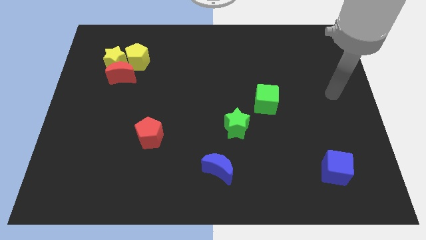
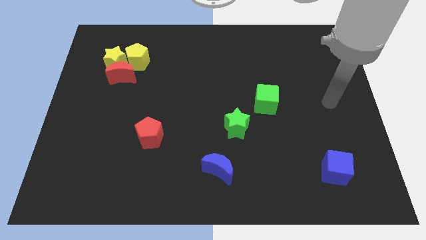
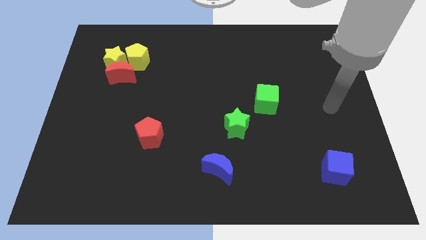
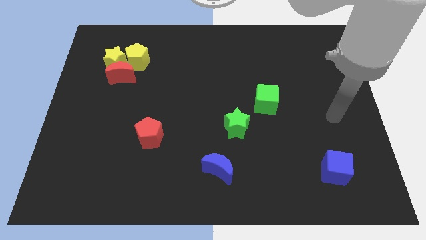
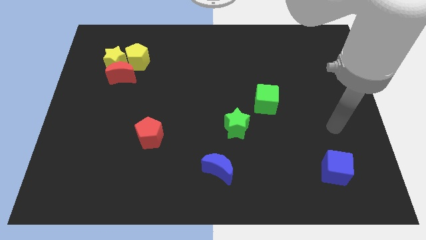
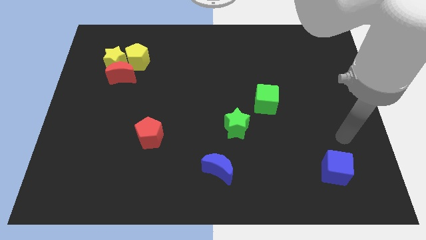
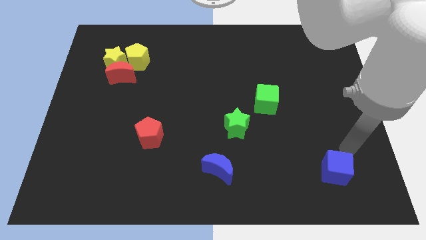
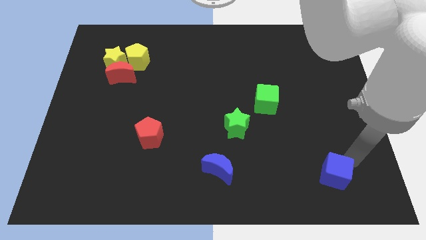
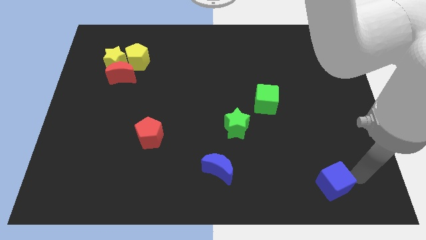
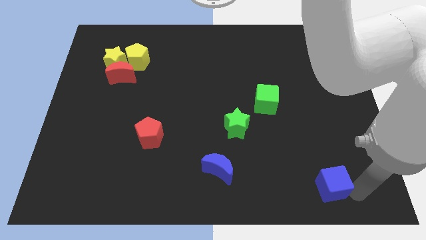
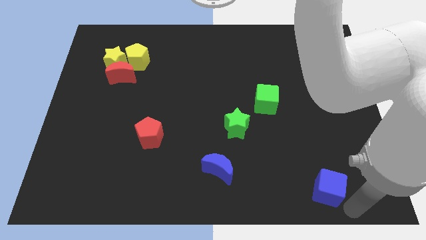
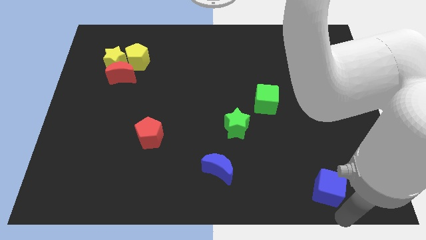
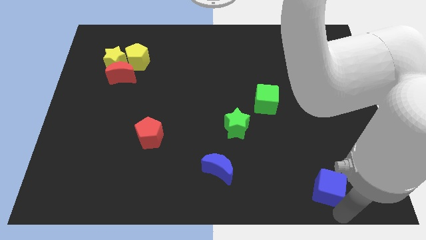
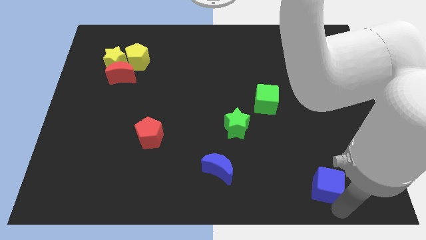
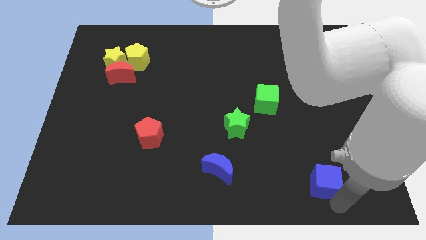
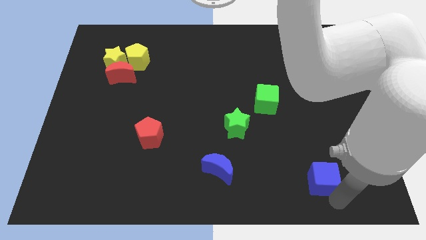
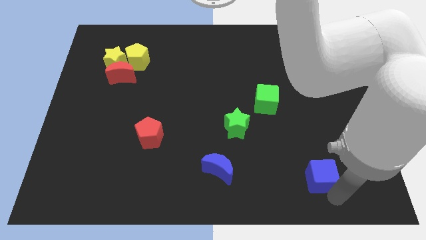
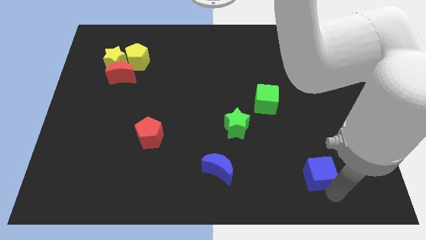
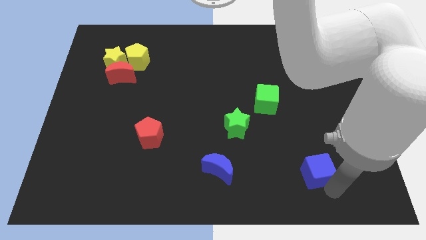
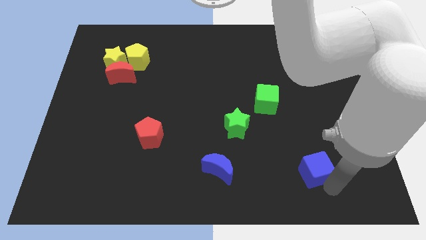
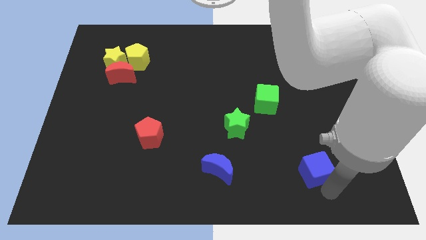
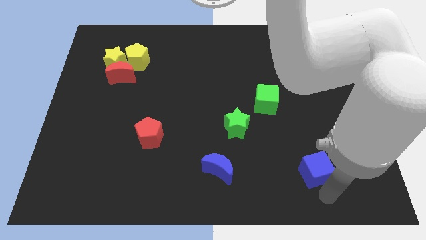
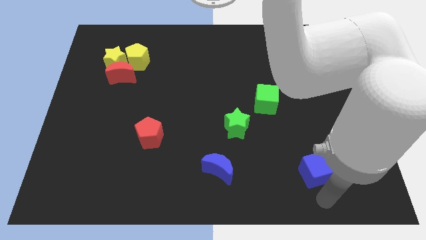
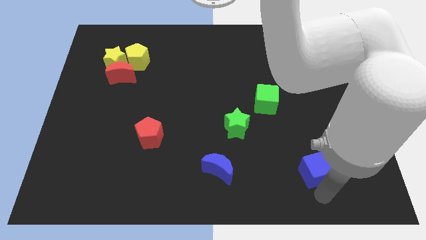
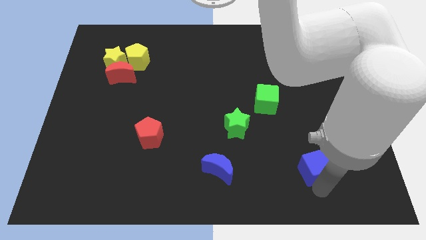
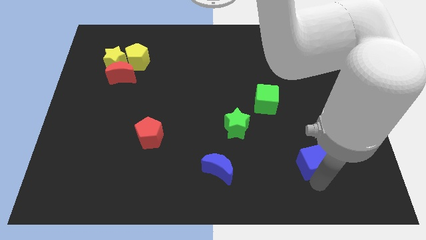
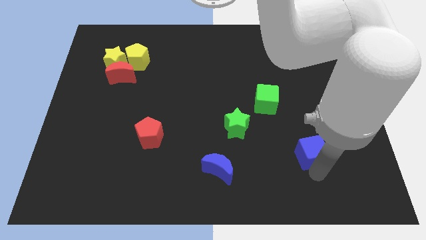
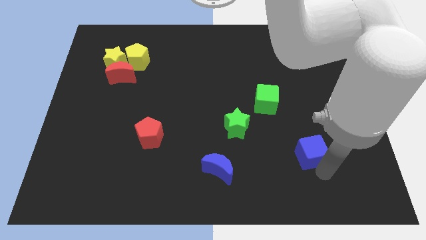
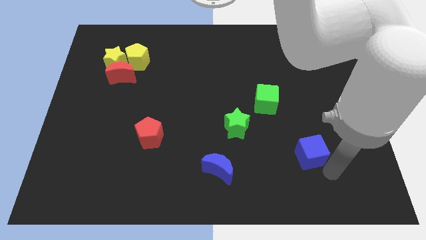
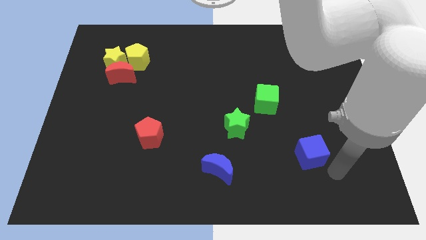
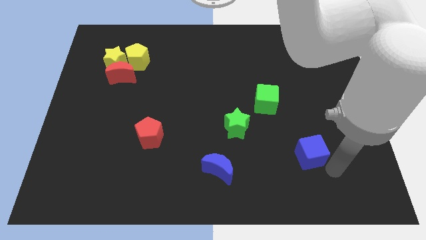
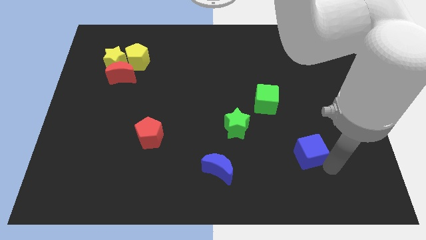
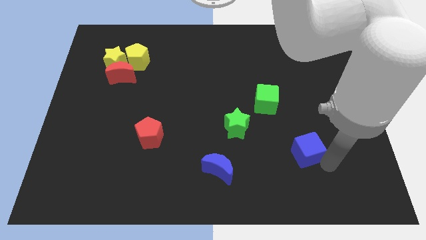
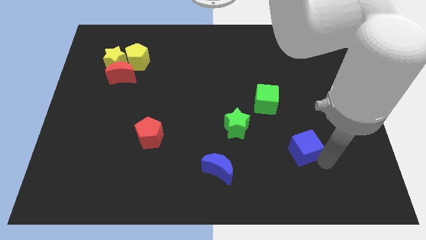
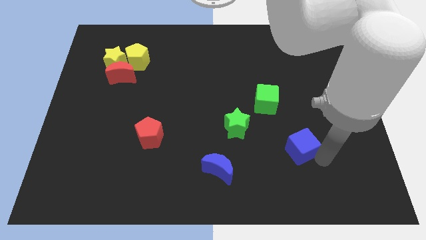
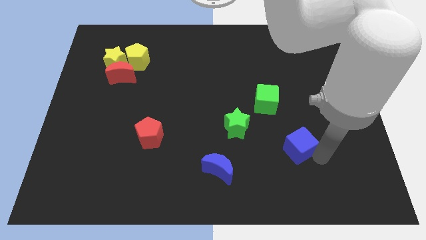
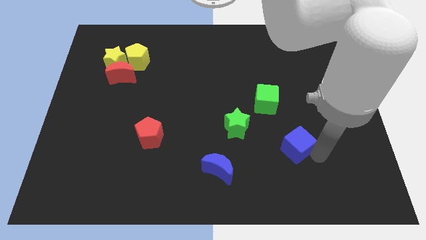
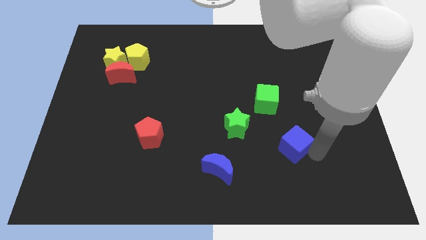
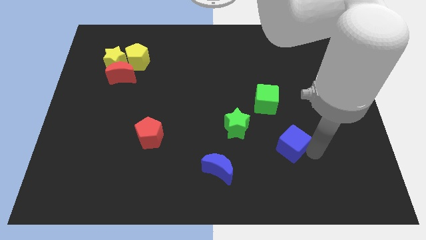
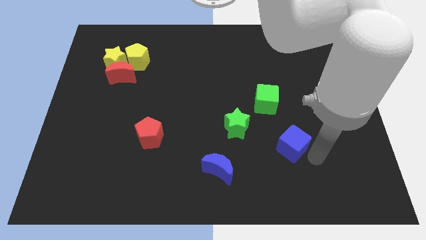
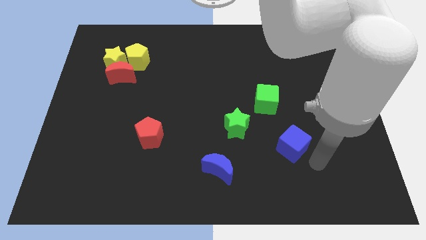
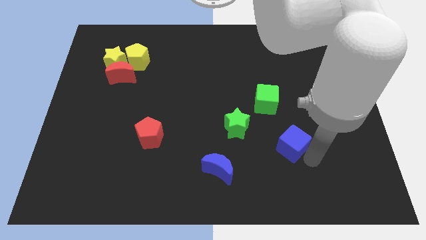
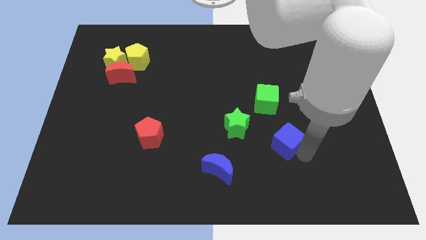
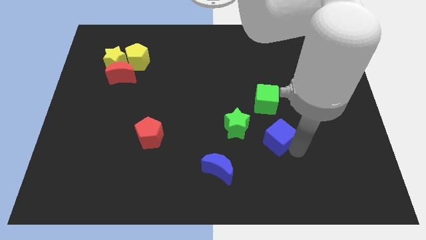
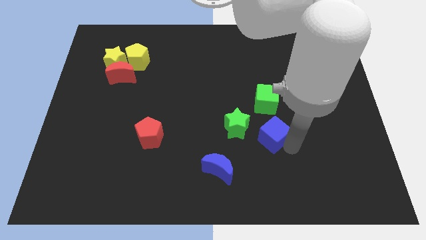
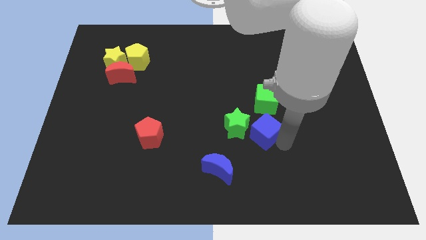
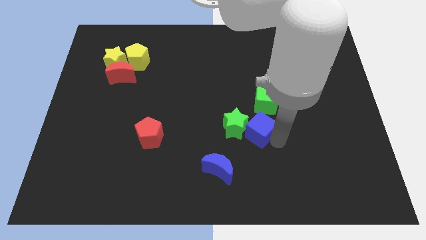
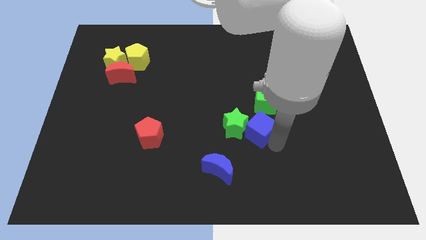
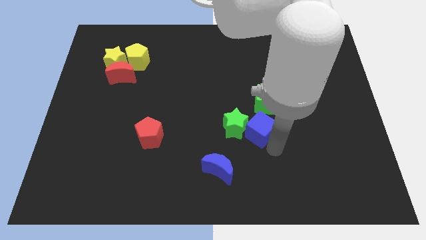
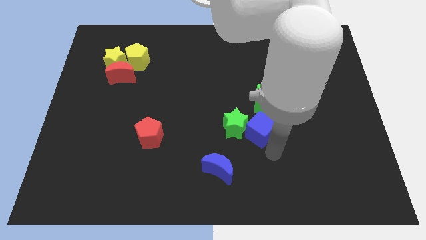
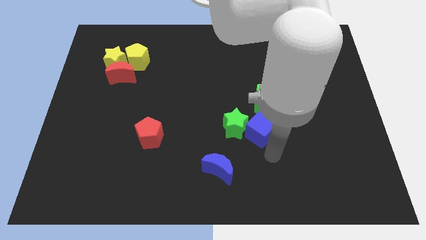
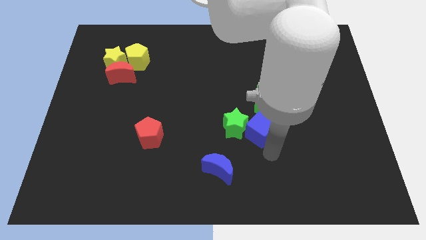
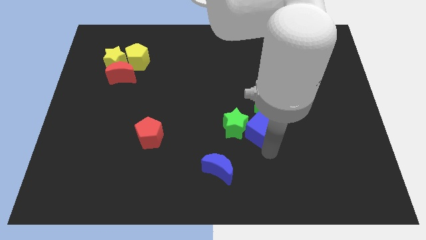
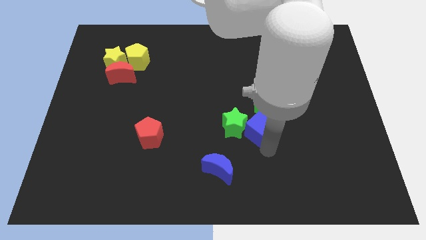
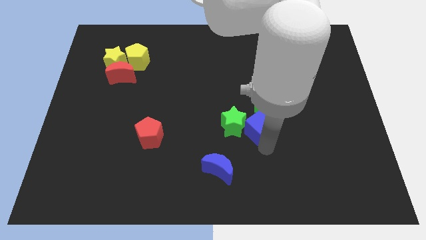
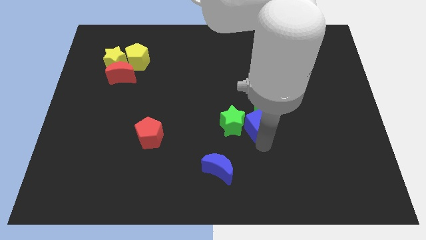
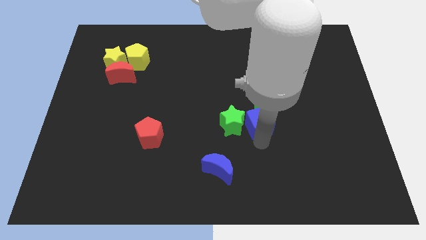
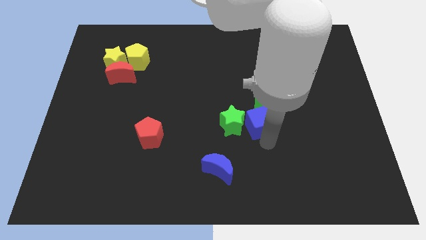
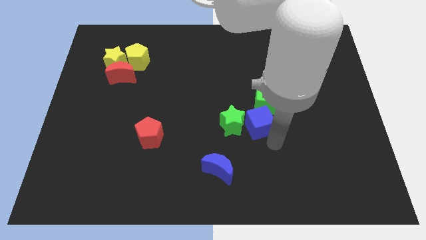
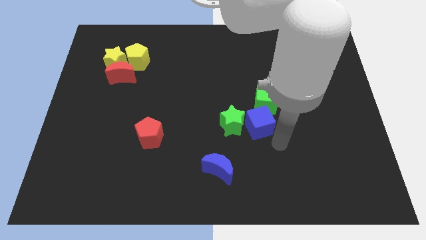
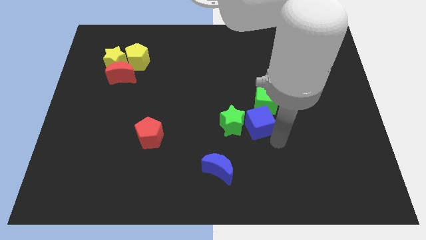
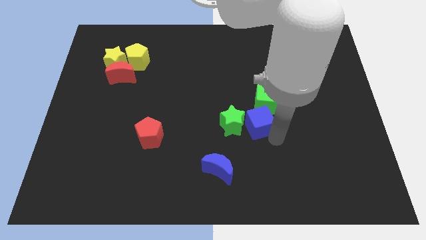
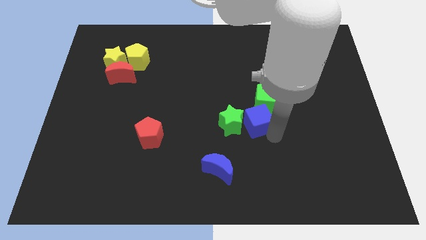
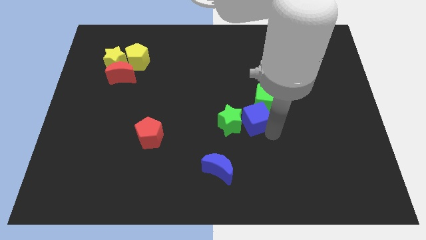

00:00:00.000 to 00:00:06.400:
move the blue cube up and left diagonally

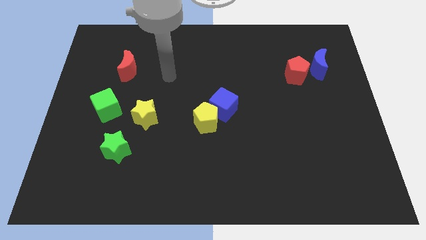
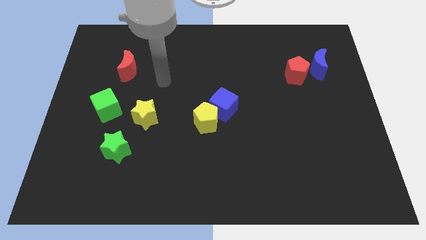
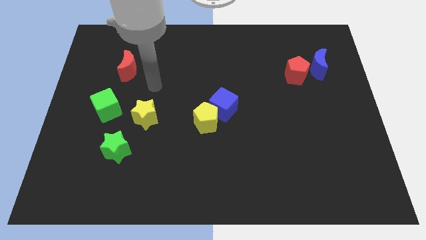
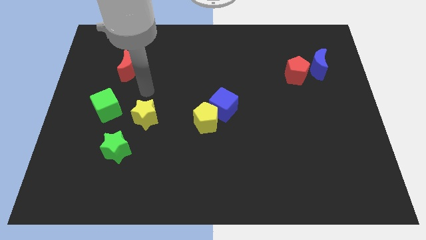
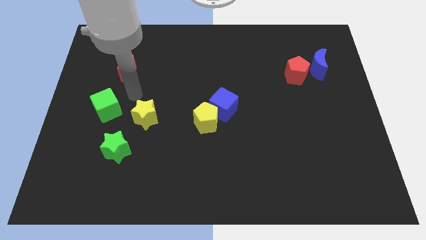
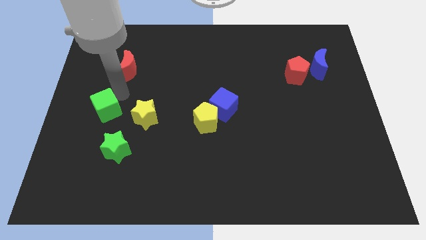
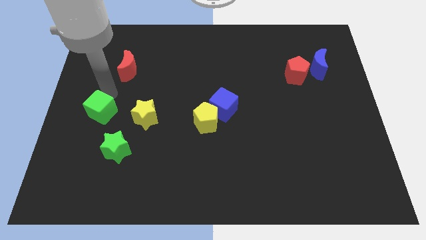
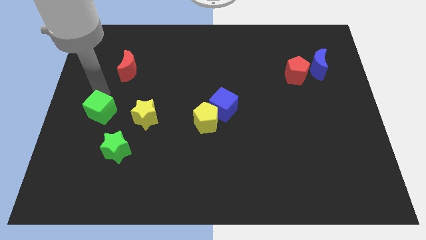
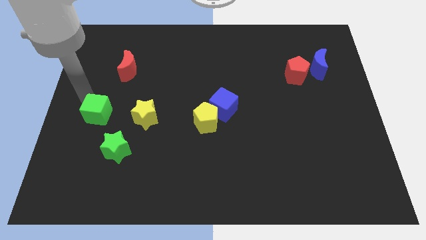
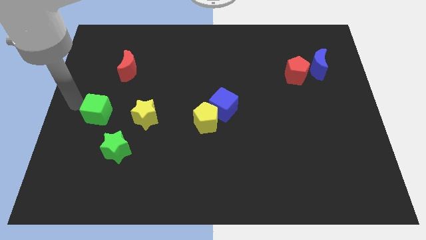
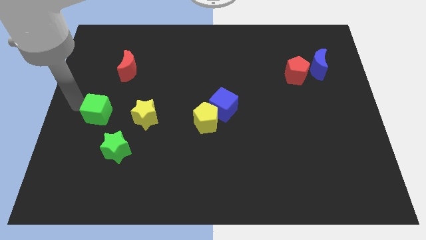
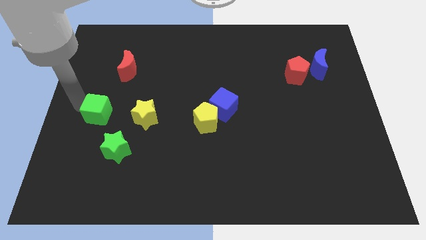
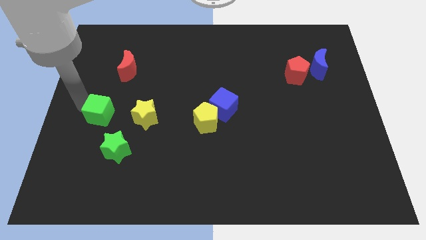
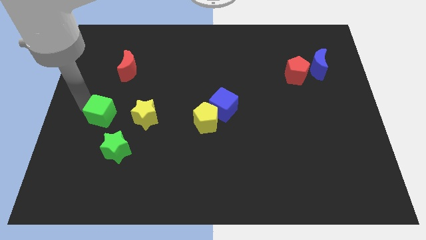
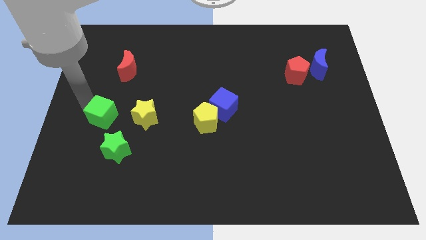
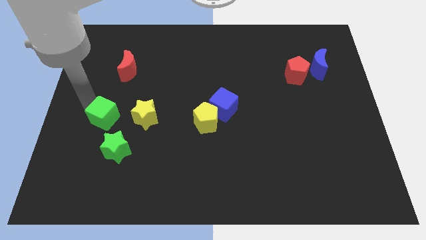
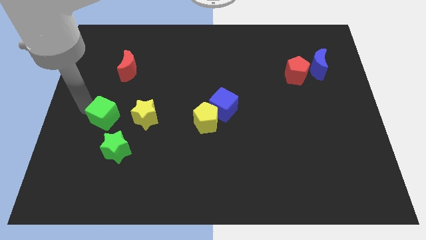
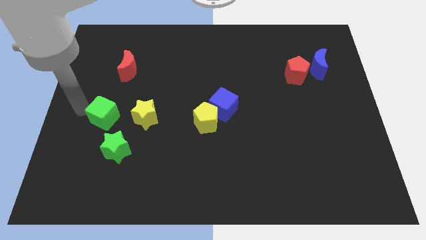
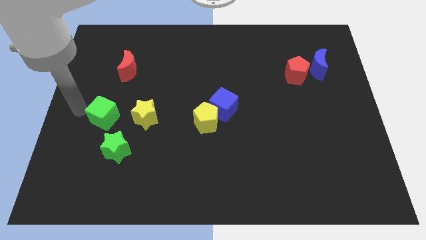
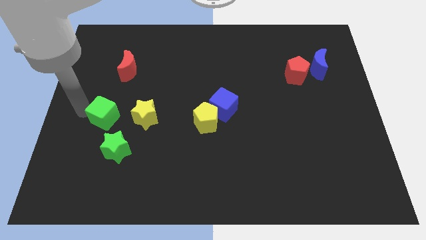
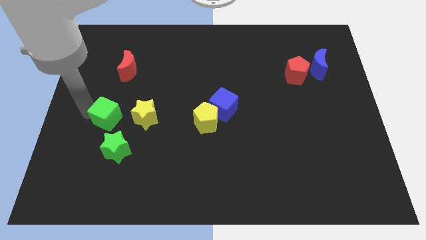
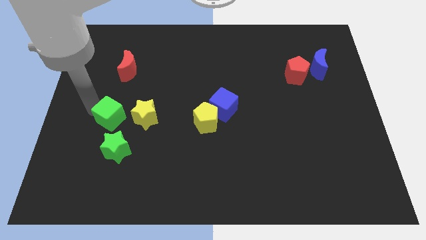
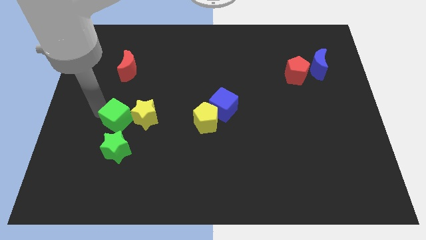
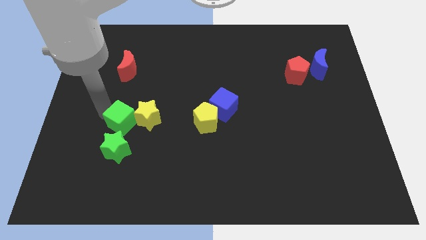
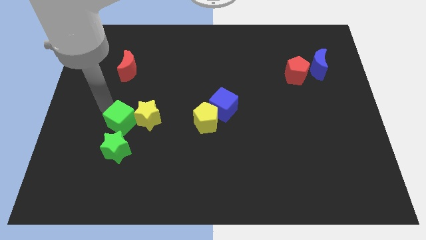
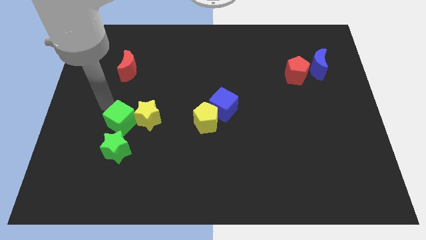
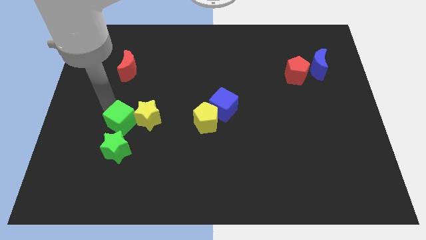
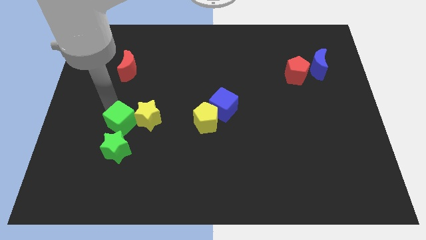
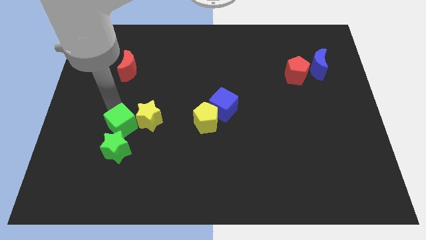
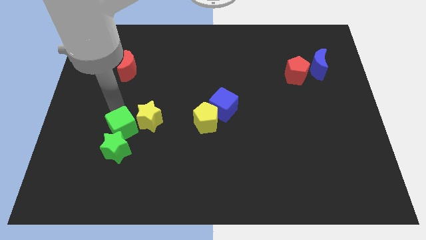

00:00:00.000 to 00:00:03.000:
slightly move the green cube down and to the right
